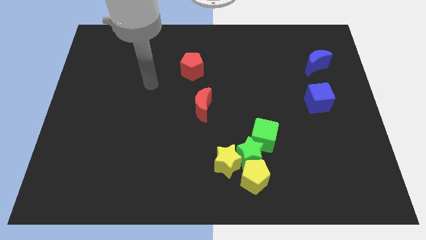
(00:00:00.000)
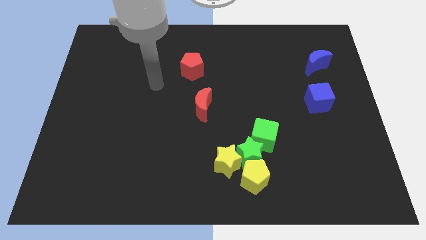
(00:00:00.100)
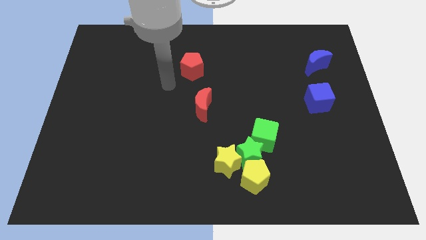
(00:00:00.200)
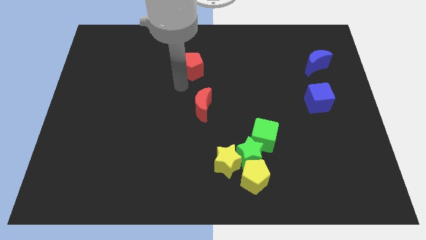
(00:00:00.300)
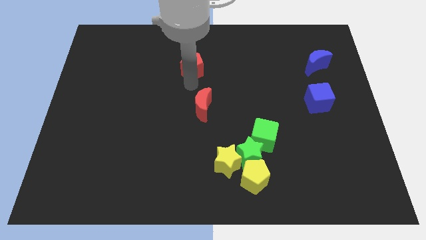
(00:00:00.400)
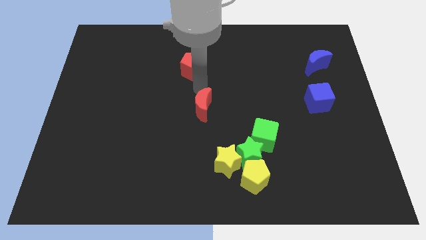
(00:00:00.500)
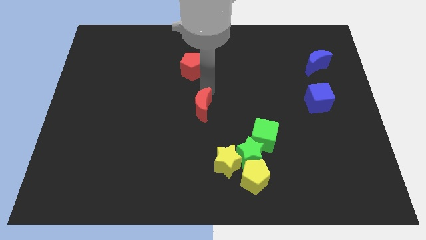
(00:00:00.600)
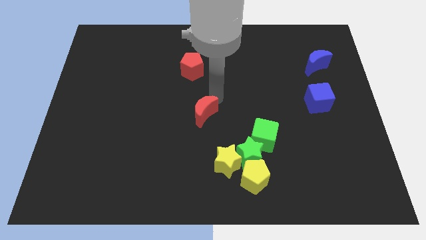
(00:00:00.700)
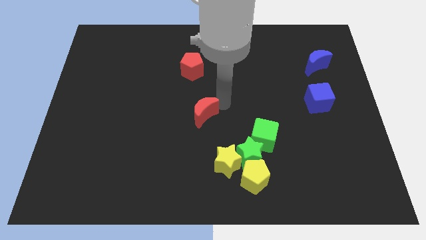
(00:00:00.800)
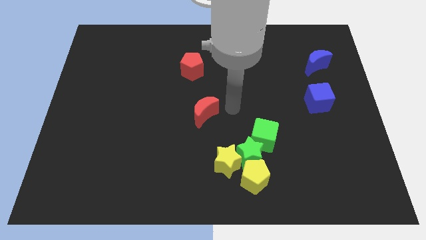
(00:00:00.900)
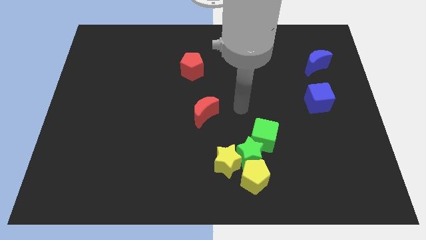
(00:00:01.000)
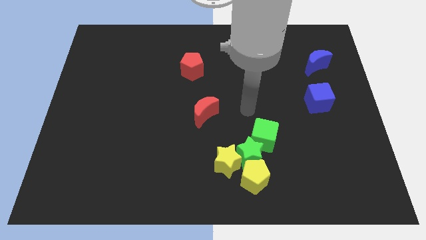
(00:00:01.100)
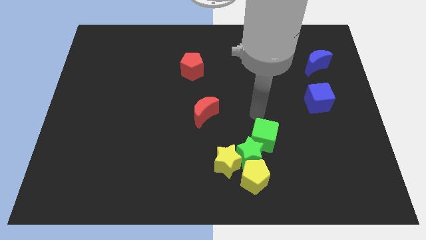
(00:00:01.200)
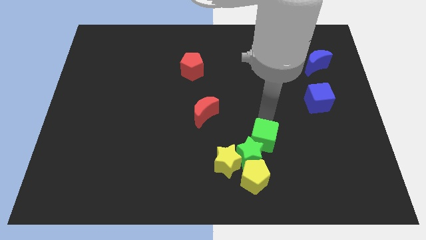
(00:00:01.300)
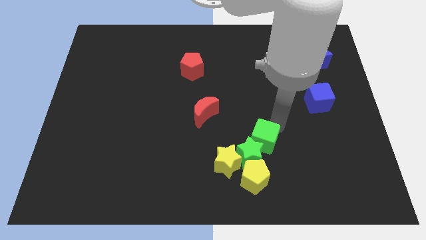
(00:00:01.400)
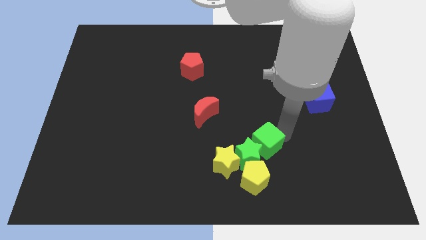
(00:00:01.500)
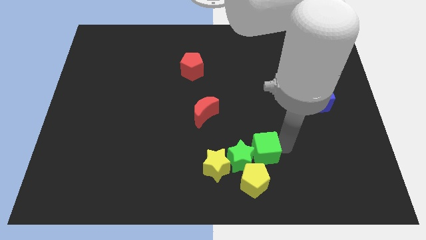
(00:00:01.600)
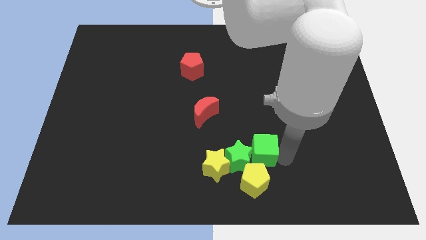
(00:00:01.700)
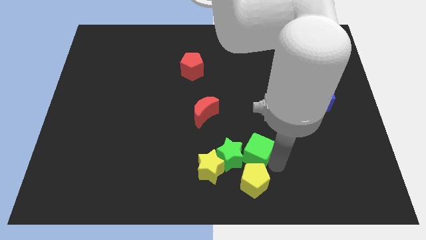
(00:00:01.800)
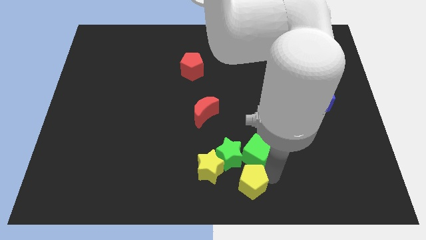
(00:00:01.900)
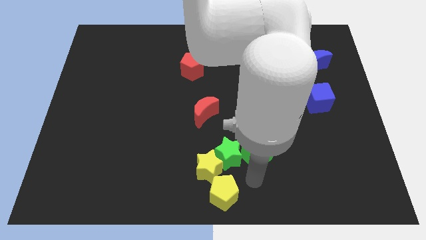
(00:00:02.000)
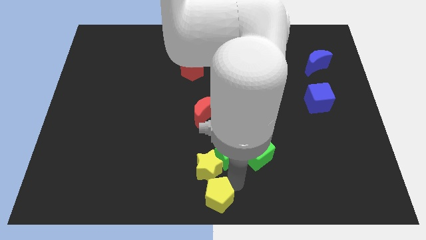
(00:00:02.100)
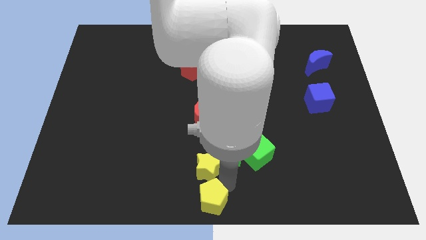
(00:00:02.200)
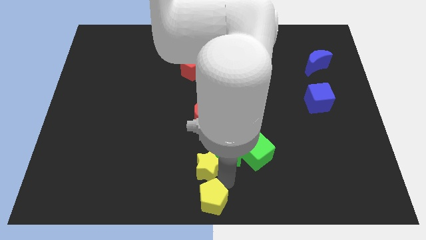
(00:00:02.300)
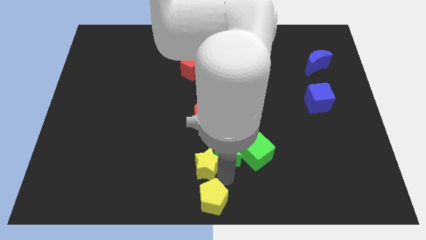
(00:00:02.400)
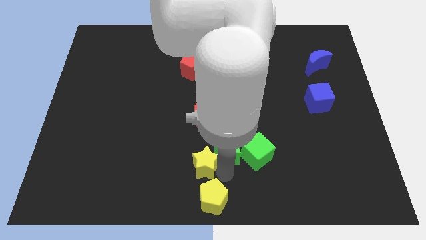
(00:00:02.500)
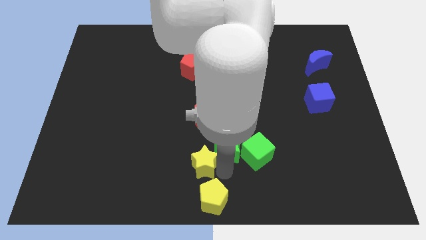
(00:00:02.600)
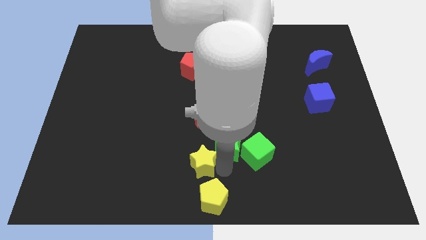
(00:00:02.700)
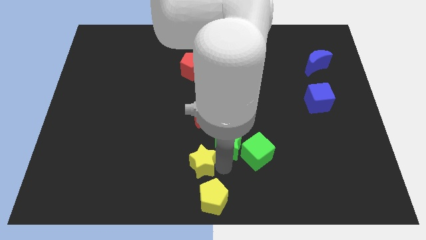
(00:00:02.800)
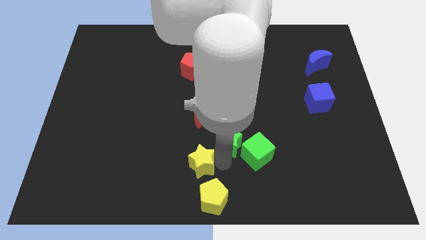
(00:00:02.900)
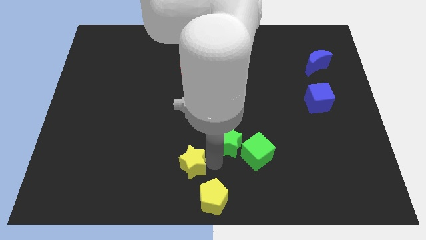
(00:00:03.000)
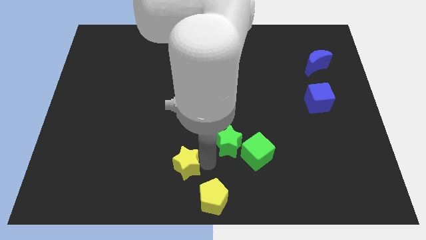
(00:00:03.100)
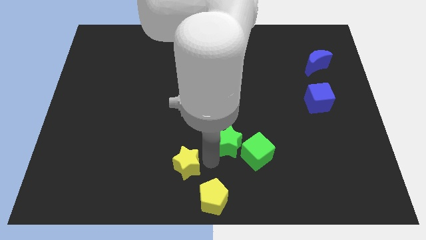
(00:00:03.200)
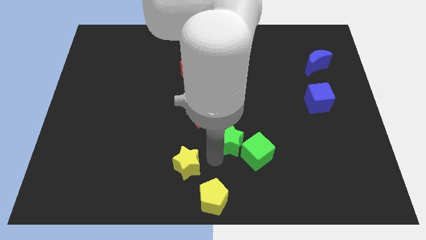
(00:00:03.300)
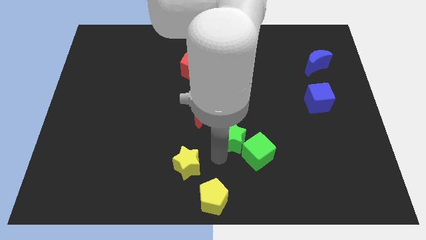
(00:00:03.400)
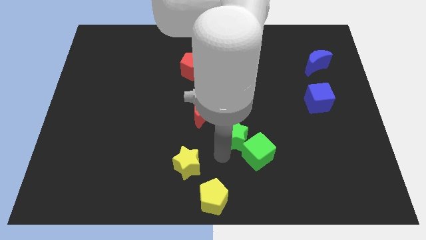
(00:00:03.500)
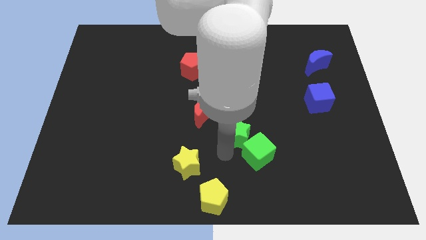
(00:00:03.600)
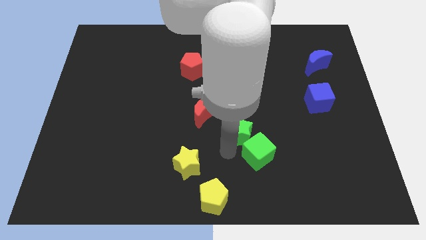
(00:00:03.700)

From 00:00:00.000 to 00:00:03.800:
move the green star away from the yellow star, yellow pentagon, and green cube

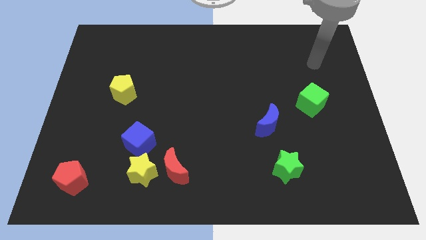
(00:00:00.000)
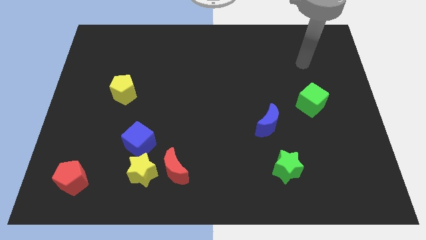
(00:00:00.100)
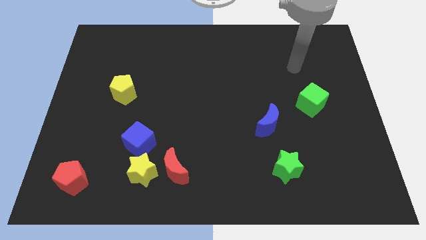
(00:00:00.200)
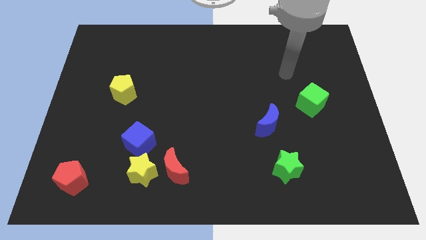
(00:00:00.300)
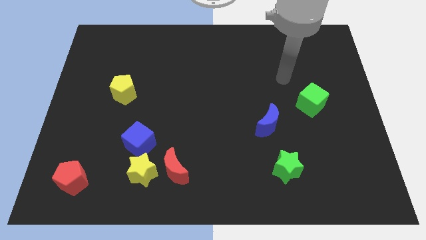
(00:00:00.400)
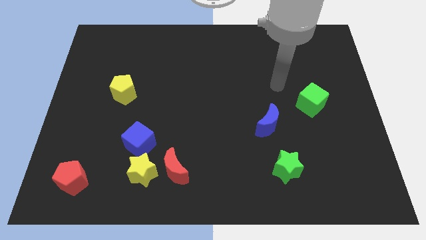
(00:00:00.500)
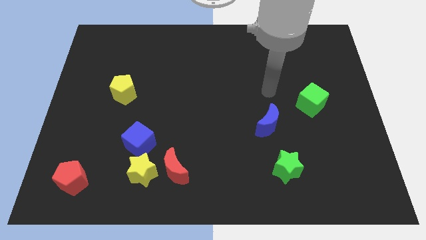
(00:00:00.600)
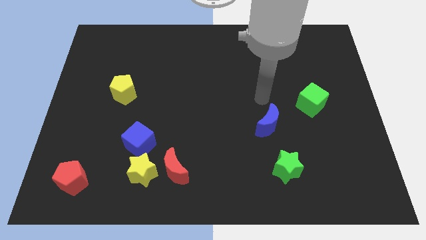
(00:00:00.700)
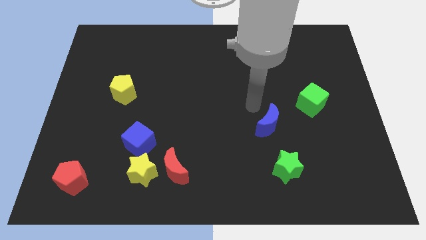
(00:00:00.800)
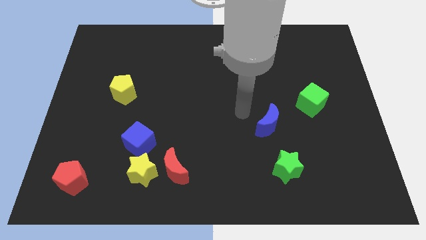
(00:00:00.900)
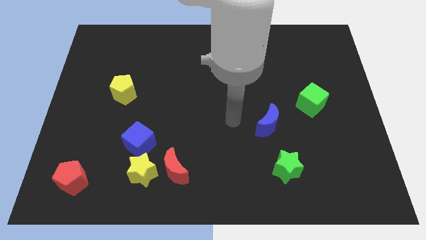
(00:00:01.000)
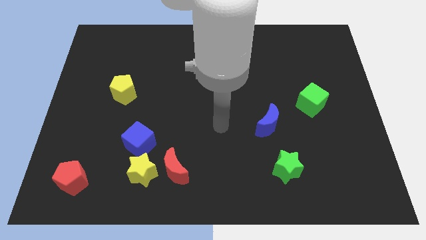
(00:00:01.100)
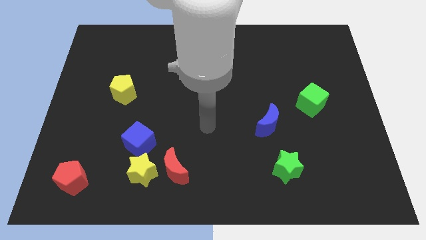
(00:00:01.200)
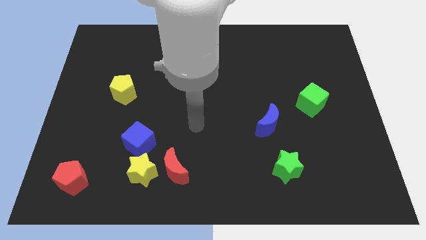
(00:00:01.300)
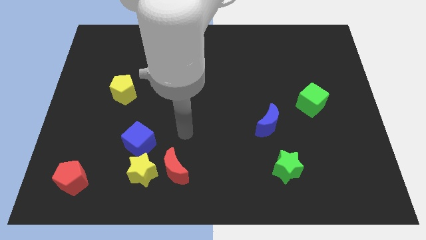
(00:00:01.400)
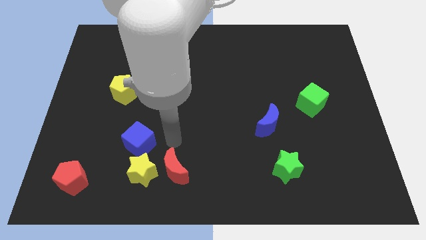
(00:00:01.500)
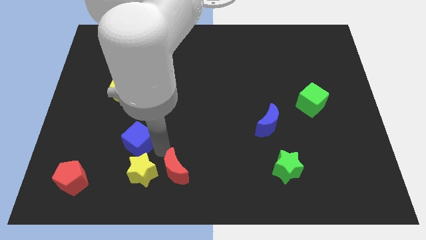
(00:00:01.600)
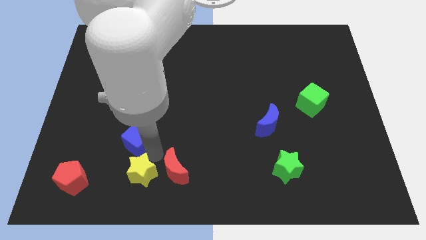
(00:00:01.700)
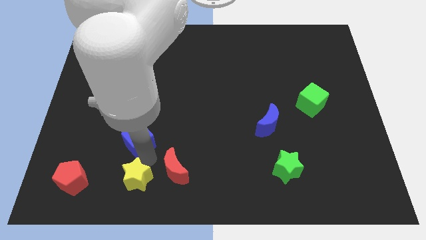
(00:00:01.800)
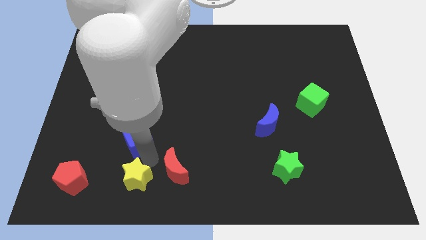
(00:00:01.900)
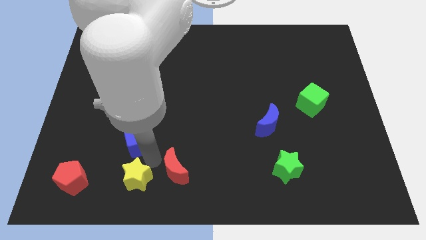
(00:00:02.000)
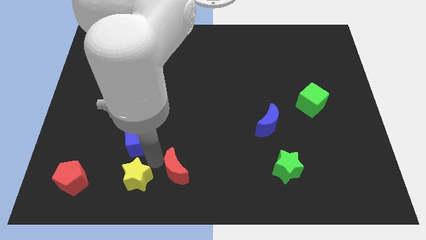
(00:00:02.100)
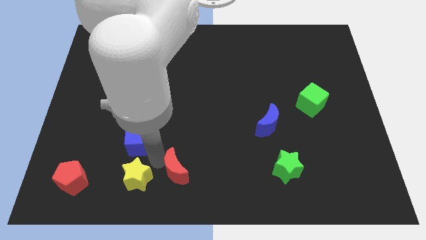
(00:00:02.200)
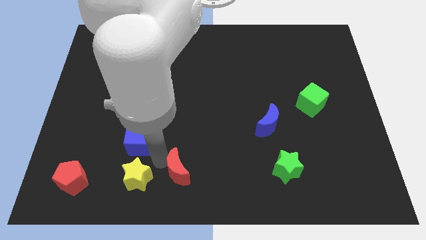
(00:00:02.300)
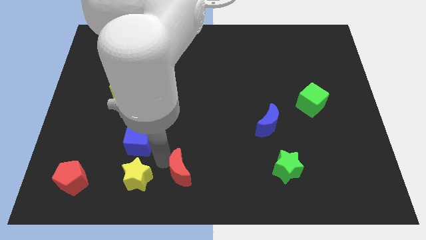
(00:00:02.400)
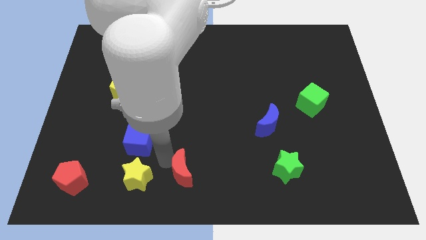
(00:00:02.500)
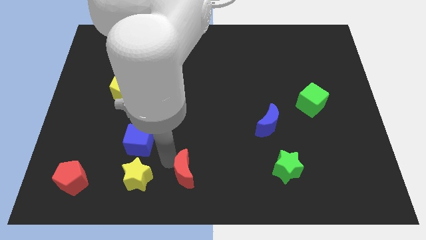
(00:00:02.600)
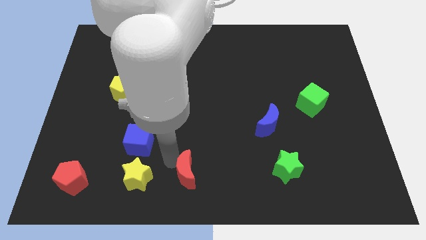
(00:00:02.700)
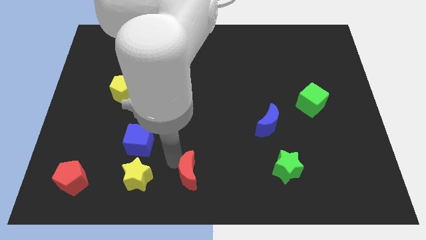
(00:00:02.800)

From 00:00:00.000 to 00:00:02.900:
pull the red moon apart from the yellow star

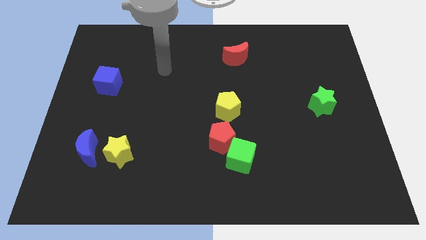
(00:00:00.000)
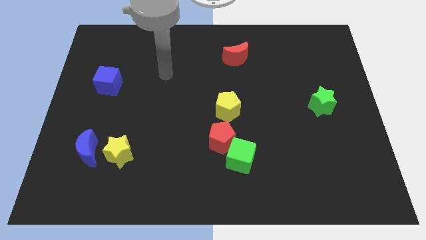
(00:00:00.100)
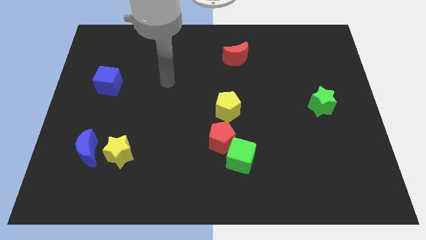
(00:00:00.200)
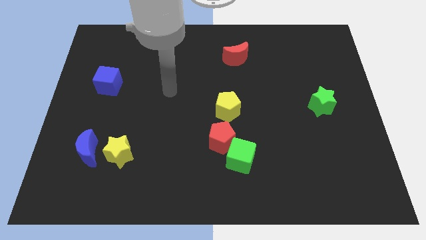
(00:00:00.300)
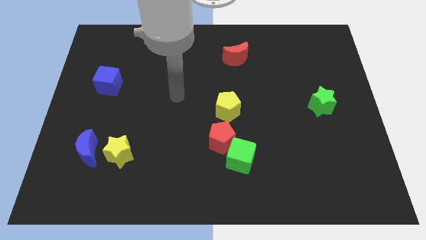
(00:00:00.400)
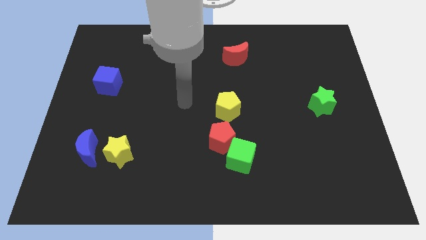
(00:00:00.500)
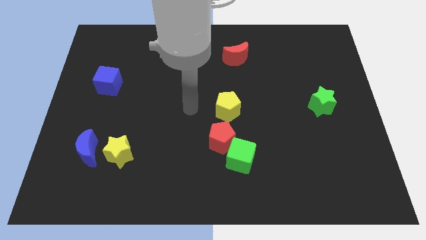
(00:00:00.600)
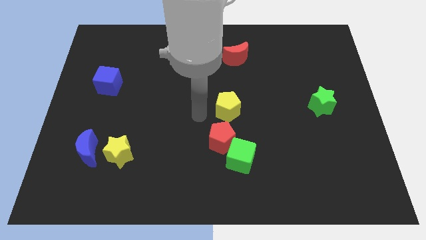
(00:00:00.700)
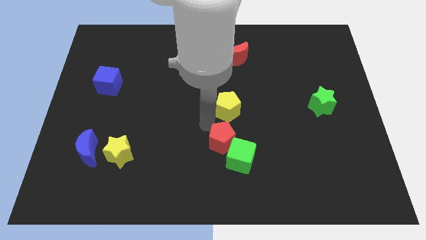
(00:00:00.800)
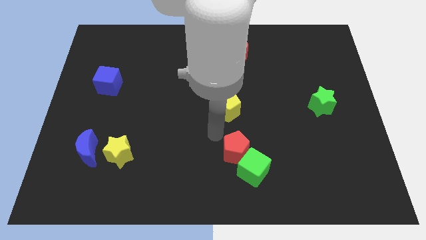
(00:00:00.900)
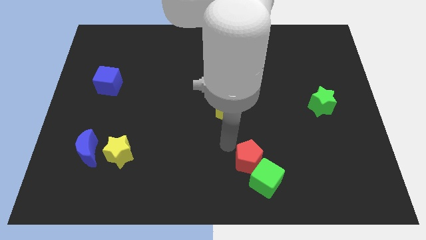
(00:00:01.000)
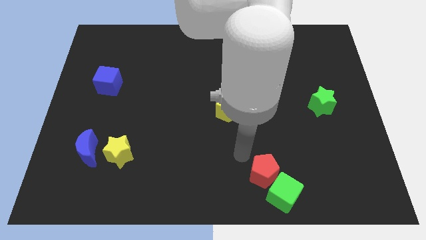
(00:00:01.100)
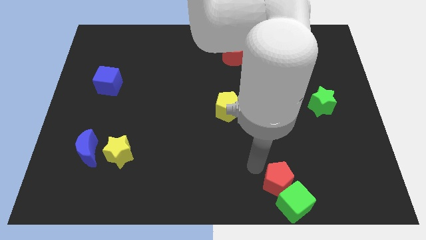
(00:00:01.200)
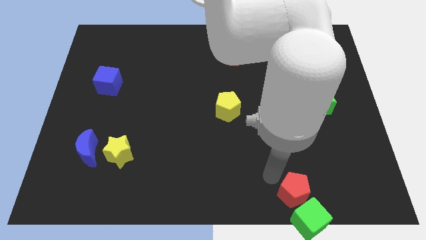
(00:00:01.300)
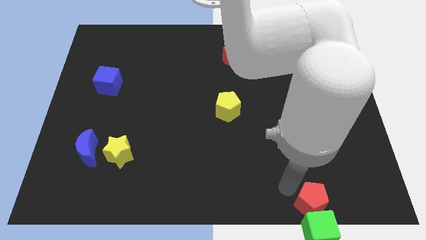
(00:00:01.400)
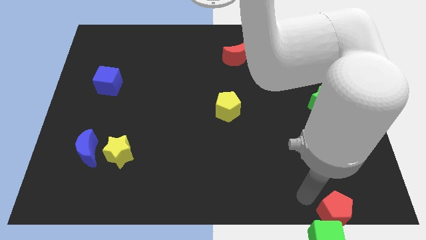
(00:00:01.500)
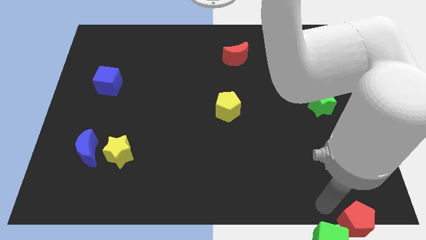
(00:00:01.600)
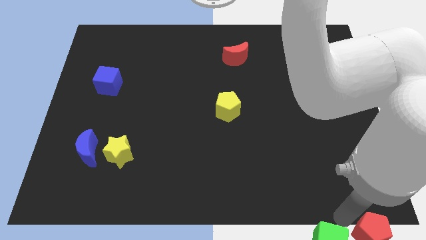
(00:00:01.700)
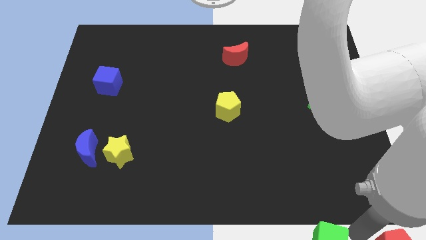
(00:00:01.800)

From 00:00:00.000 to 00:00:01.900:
separate the green cube from the red pentagon

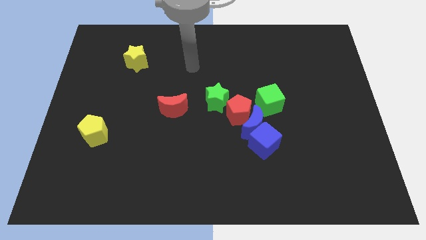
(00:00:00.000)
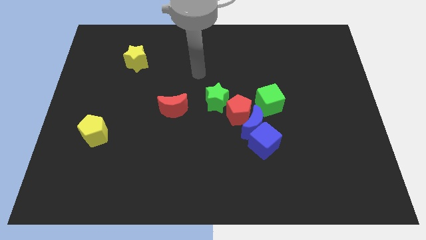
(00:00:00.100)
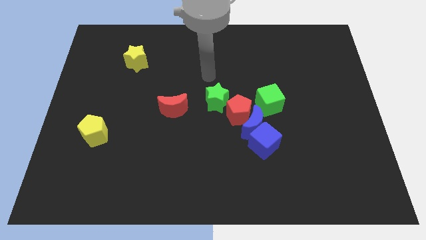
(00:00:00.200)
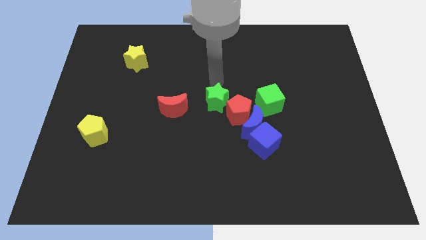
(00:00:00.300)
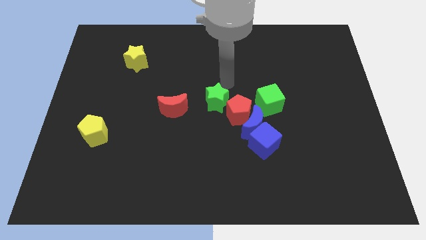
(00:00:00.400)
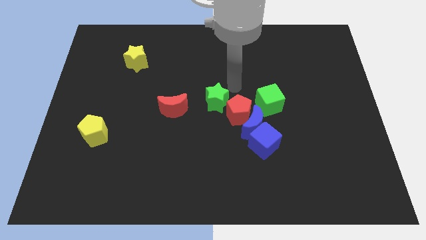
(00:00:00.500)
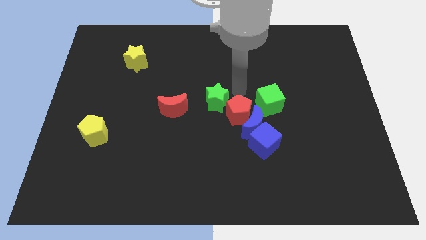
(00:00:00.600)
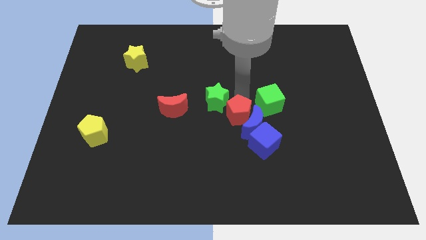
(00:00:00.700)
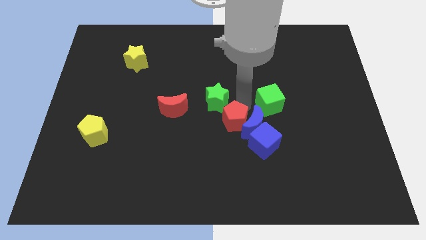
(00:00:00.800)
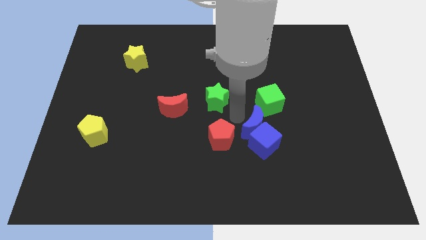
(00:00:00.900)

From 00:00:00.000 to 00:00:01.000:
separate the green star from the red pentagon
